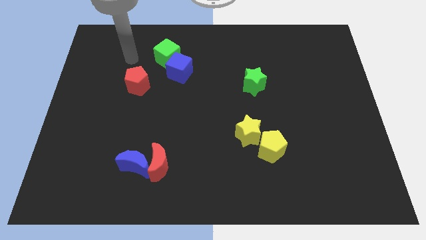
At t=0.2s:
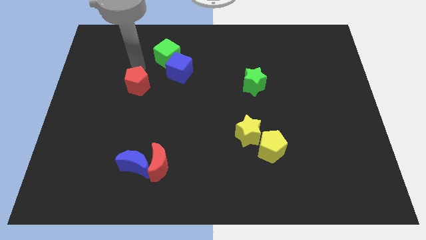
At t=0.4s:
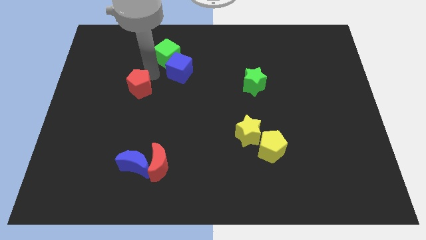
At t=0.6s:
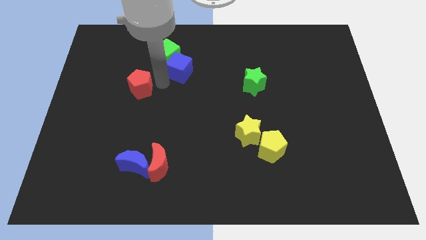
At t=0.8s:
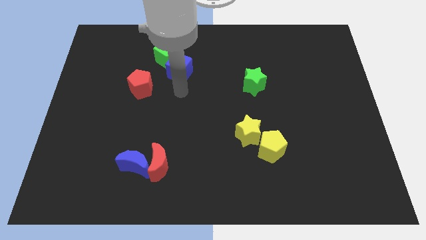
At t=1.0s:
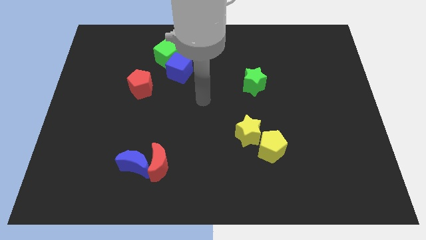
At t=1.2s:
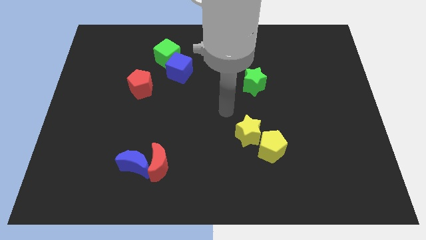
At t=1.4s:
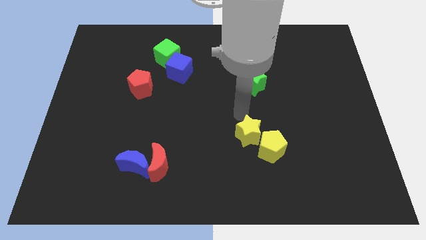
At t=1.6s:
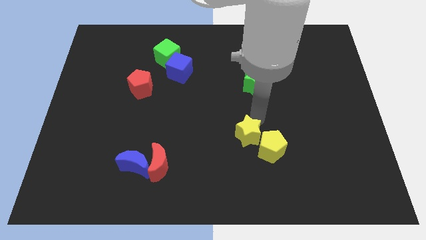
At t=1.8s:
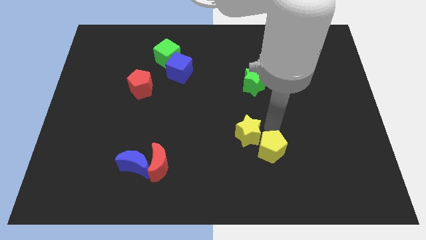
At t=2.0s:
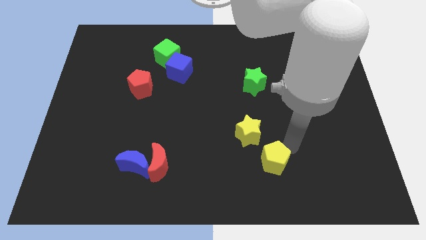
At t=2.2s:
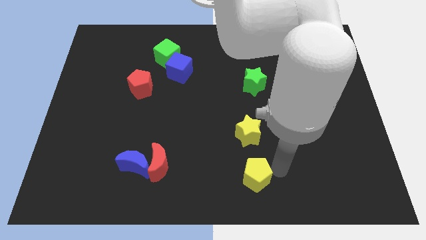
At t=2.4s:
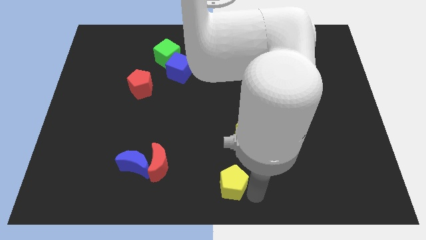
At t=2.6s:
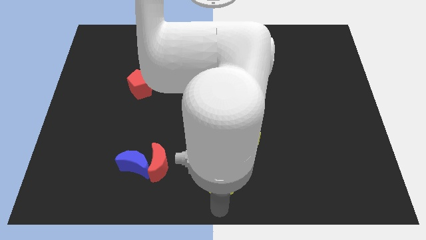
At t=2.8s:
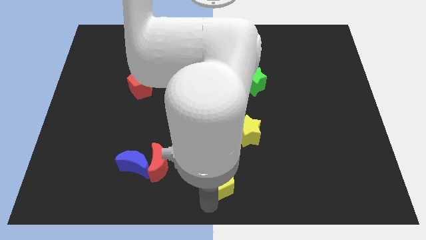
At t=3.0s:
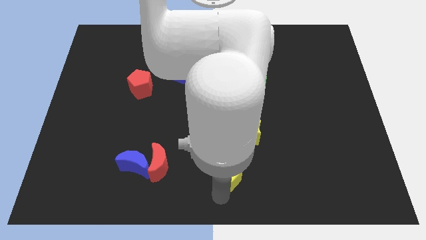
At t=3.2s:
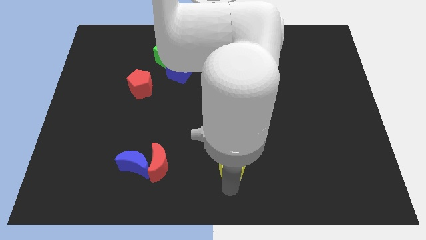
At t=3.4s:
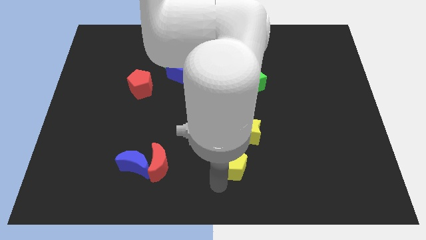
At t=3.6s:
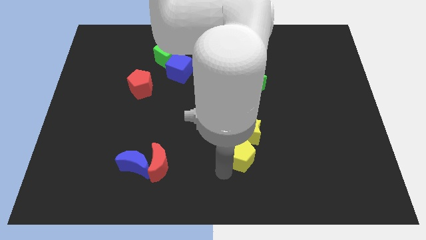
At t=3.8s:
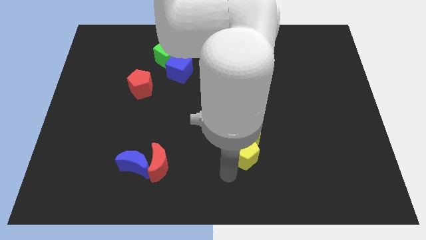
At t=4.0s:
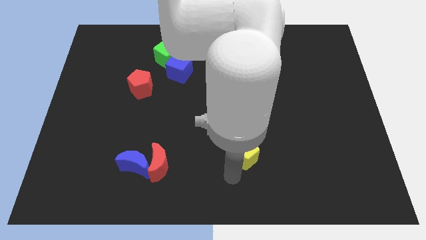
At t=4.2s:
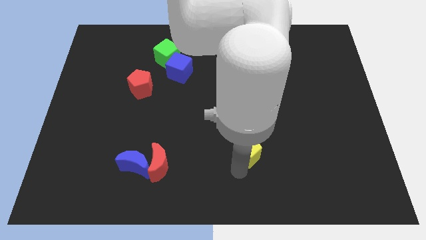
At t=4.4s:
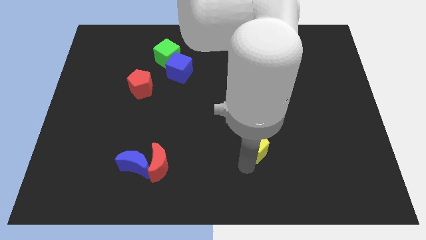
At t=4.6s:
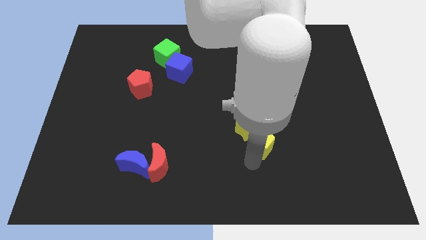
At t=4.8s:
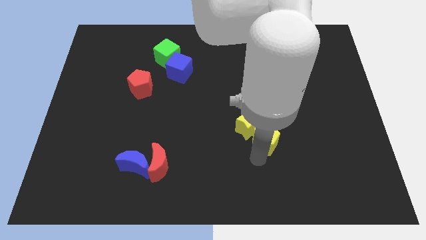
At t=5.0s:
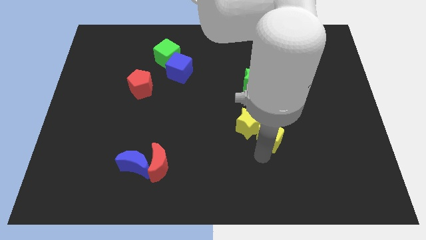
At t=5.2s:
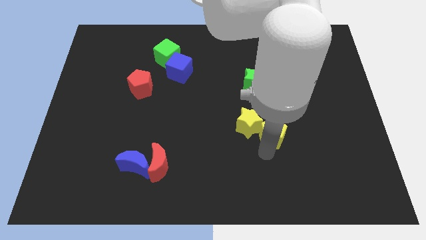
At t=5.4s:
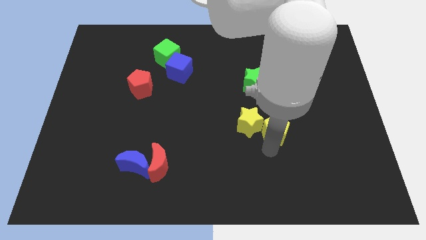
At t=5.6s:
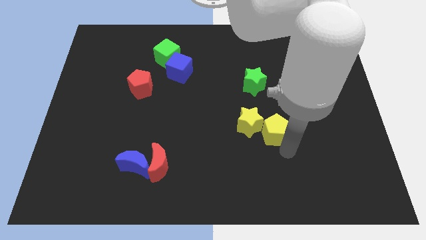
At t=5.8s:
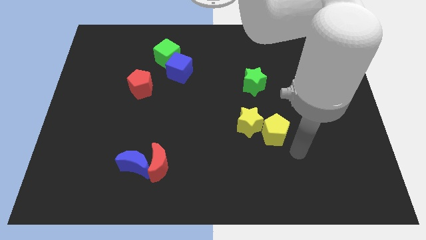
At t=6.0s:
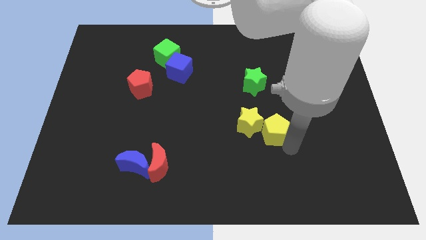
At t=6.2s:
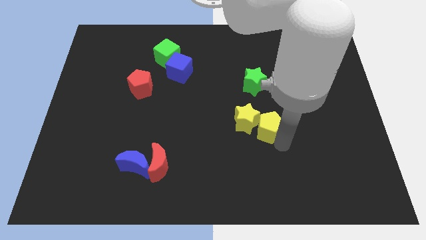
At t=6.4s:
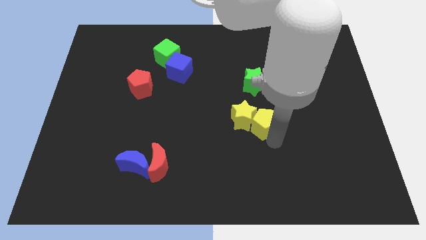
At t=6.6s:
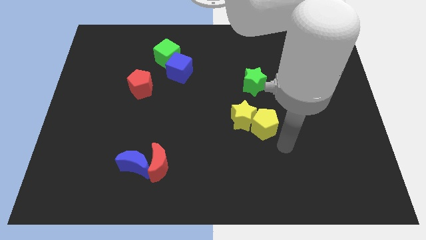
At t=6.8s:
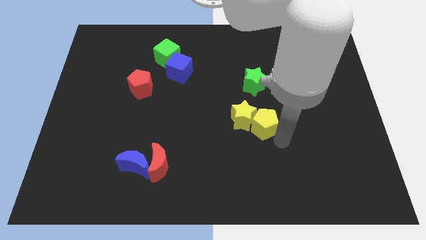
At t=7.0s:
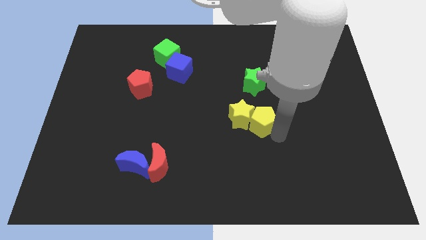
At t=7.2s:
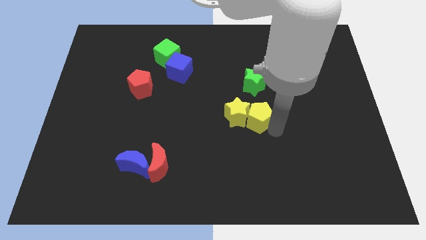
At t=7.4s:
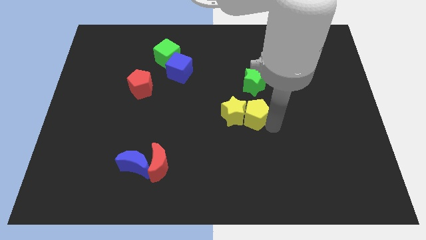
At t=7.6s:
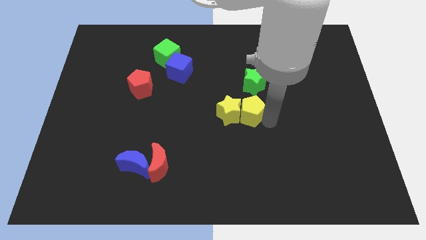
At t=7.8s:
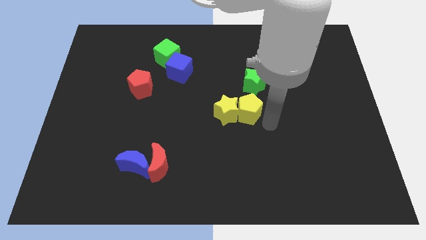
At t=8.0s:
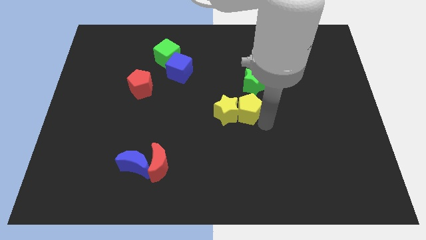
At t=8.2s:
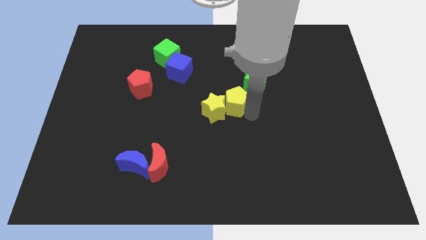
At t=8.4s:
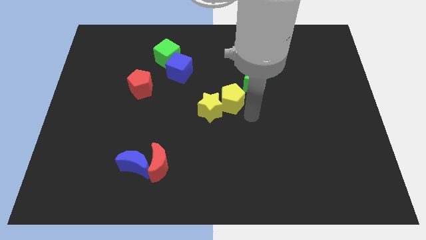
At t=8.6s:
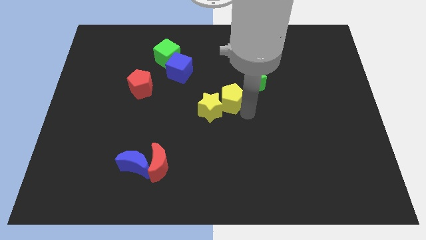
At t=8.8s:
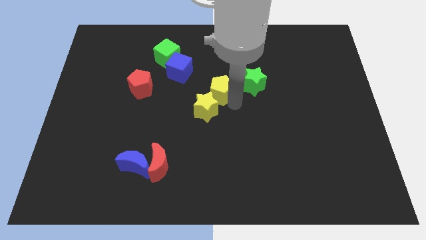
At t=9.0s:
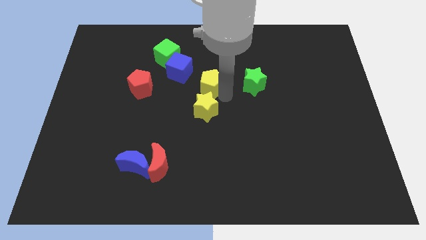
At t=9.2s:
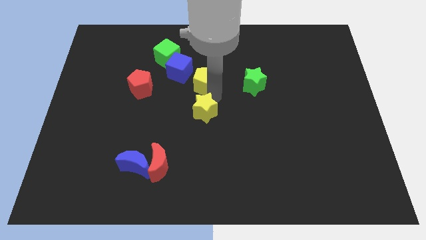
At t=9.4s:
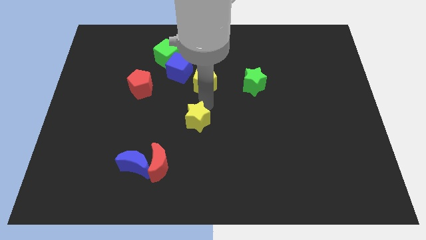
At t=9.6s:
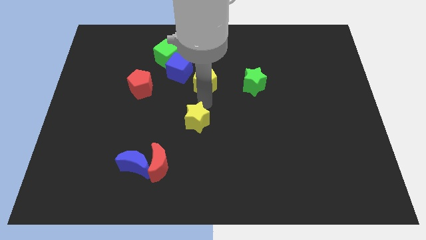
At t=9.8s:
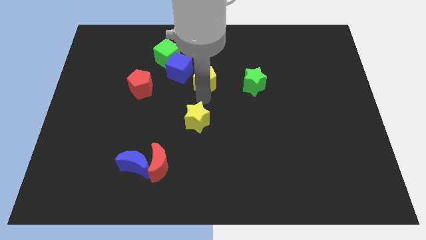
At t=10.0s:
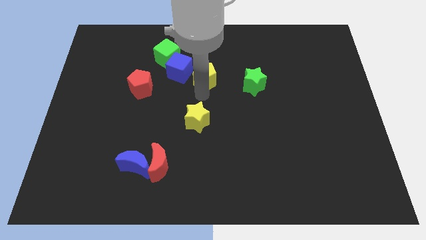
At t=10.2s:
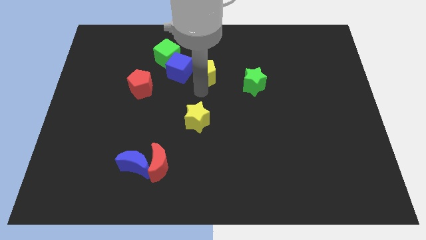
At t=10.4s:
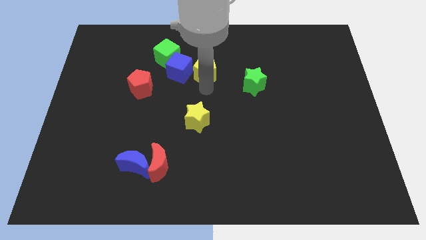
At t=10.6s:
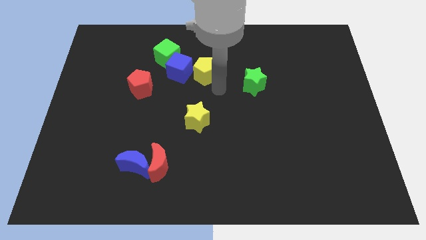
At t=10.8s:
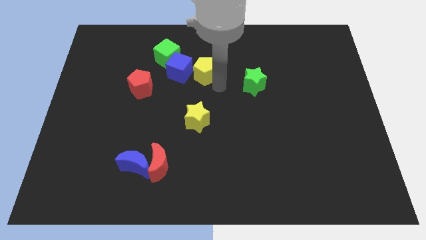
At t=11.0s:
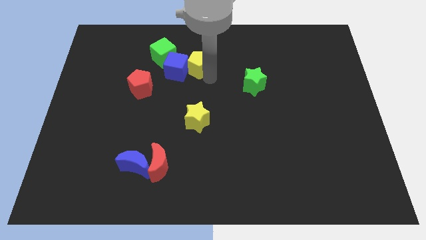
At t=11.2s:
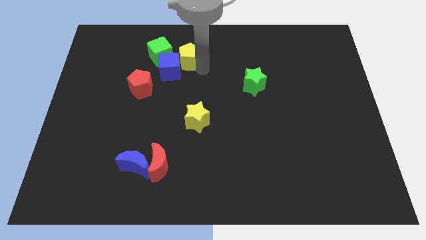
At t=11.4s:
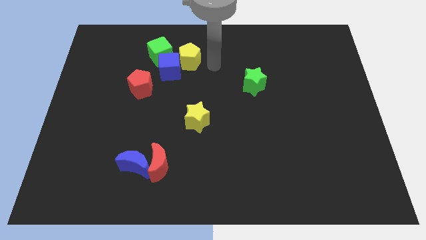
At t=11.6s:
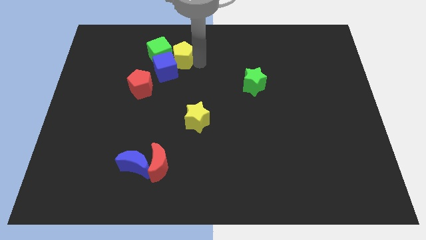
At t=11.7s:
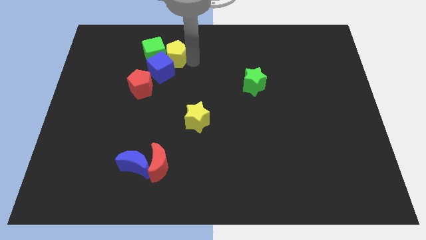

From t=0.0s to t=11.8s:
move the yellow pentagon to the green cube

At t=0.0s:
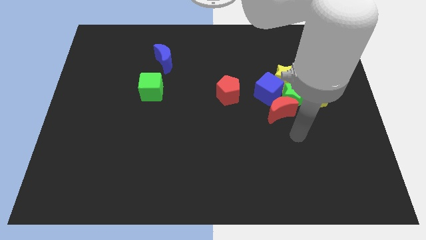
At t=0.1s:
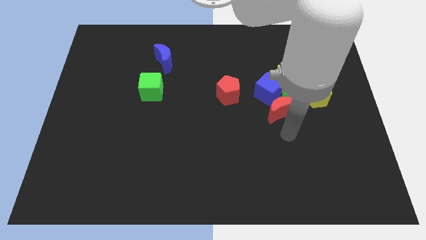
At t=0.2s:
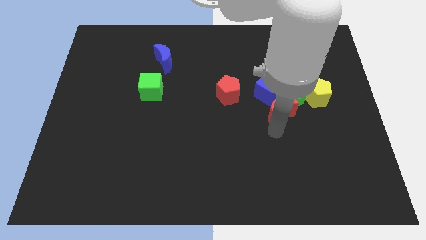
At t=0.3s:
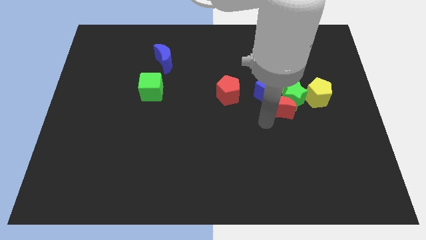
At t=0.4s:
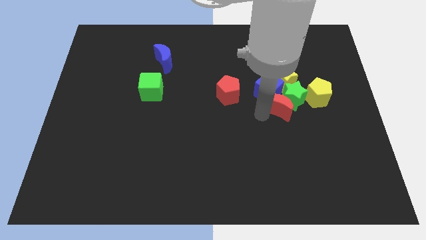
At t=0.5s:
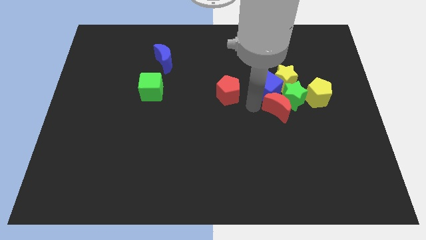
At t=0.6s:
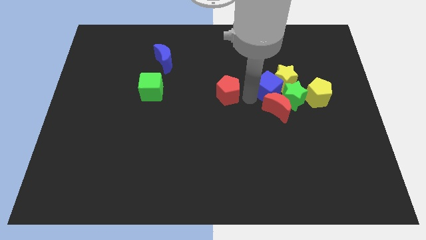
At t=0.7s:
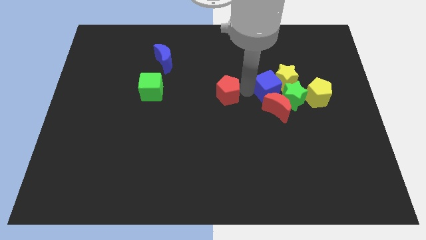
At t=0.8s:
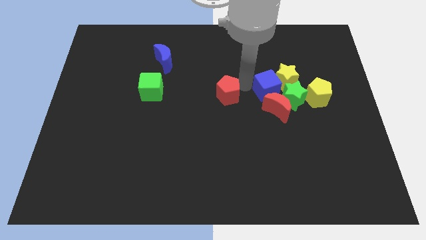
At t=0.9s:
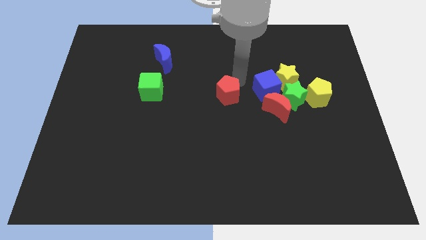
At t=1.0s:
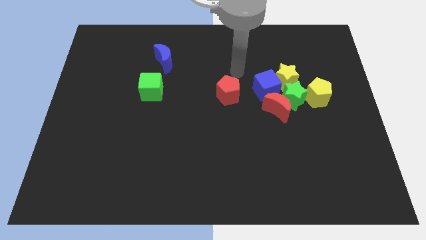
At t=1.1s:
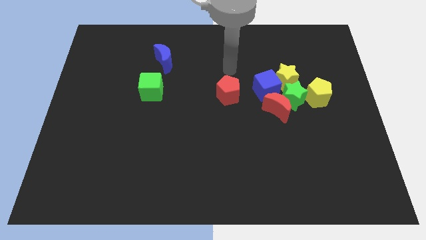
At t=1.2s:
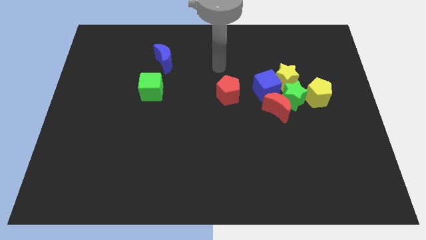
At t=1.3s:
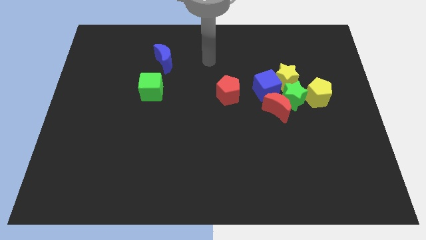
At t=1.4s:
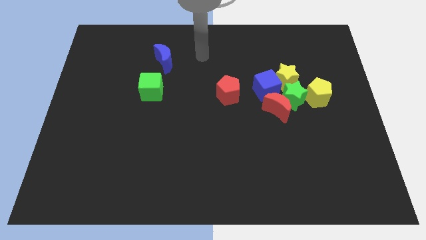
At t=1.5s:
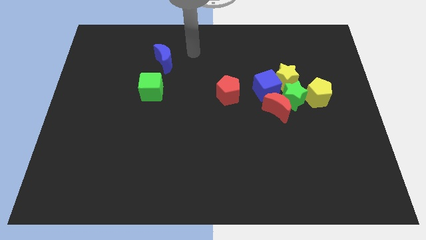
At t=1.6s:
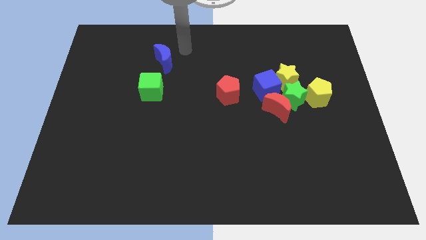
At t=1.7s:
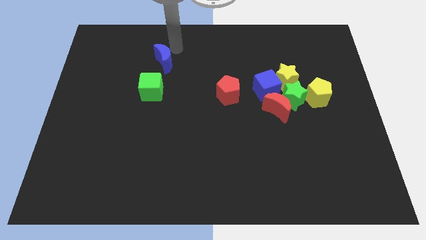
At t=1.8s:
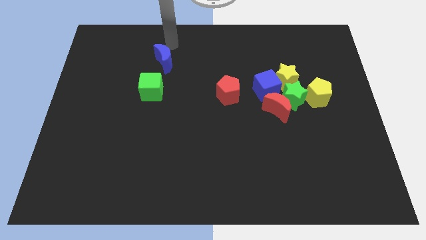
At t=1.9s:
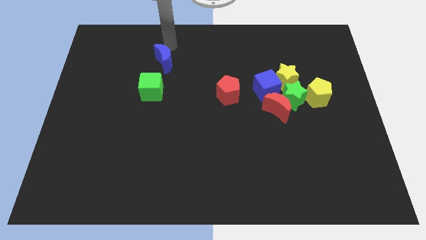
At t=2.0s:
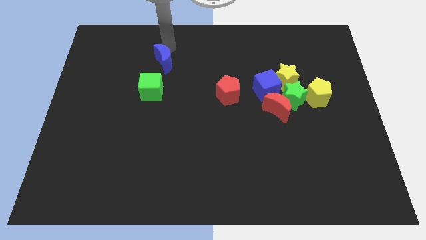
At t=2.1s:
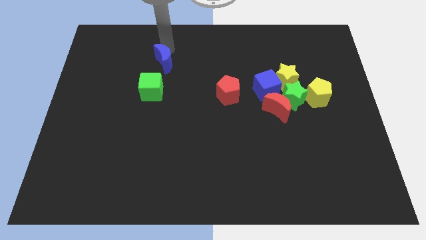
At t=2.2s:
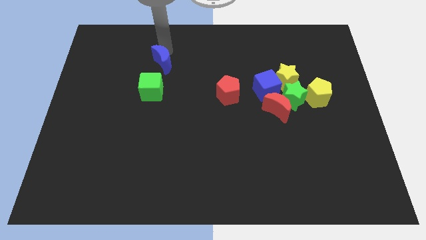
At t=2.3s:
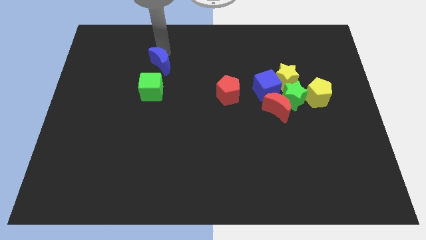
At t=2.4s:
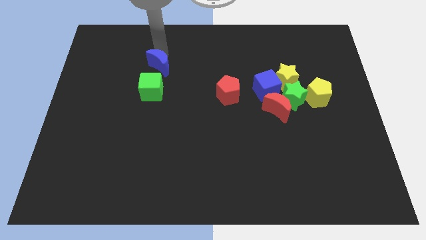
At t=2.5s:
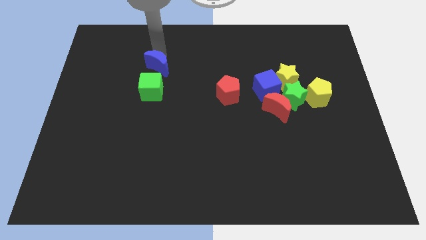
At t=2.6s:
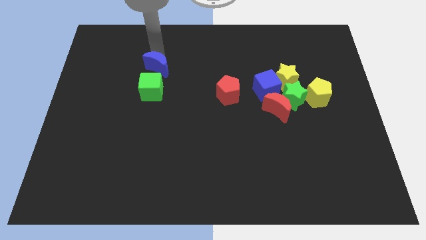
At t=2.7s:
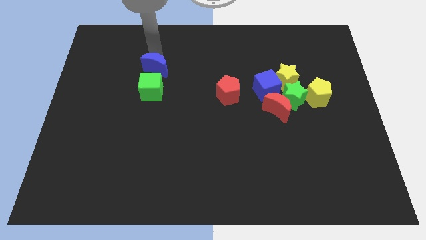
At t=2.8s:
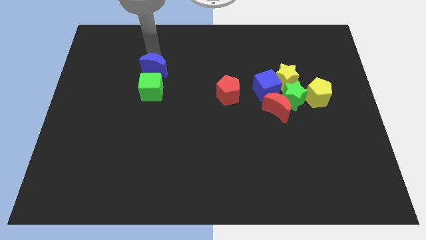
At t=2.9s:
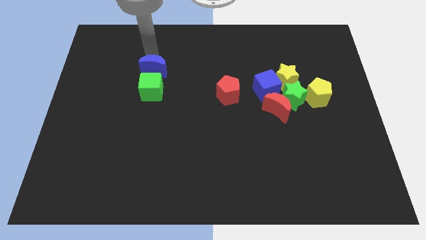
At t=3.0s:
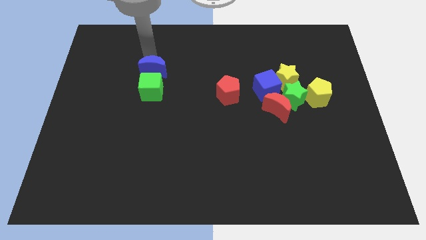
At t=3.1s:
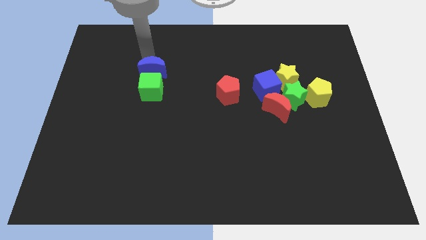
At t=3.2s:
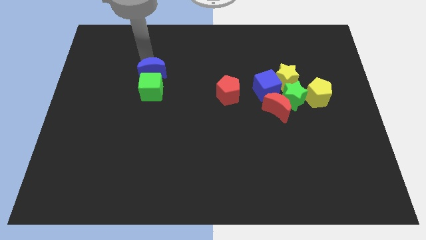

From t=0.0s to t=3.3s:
move the blue moon towards the green cube
